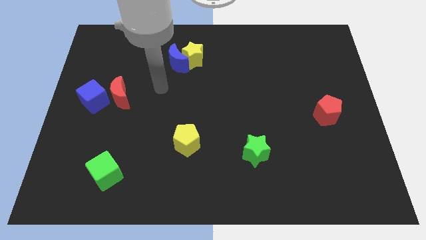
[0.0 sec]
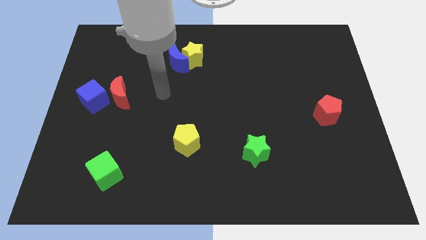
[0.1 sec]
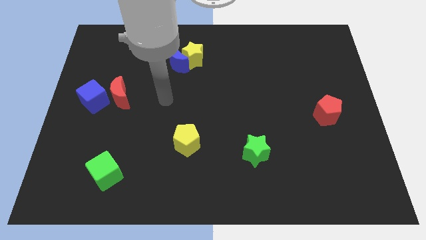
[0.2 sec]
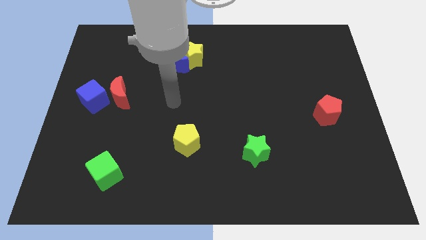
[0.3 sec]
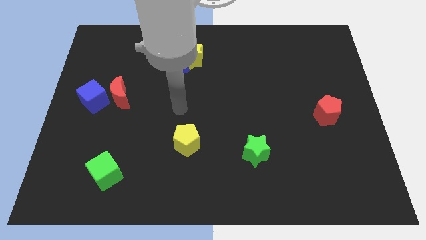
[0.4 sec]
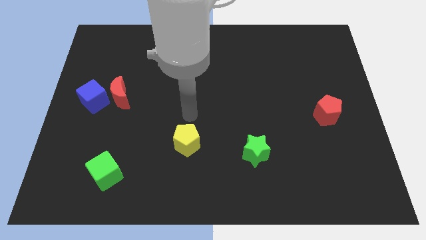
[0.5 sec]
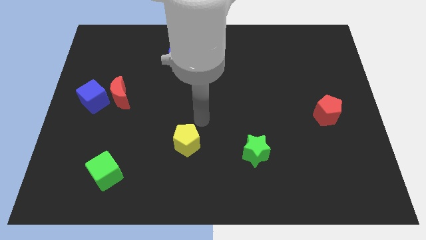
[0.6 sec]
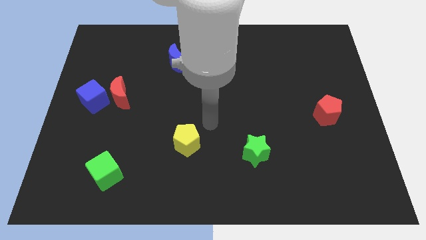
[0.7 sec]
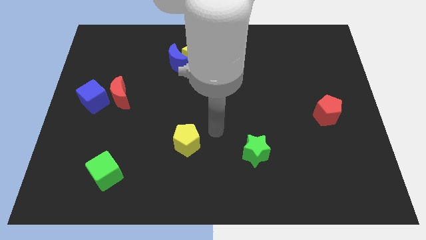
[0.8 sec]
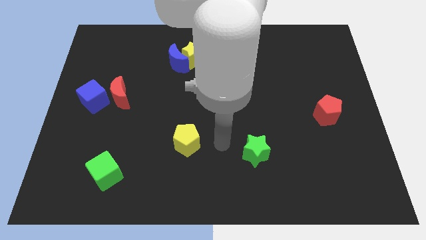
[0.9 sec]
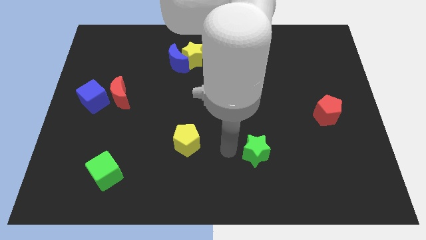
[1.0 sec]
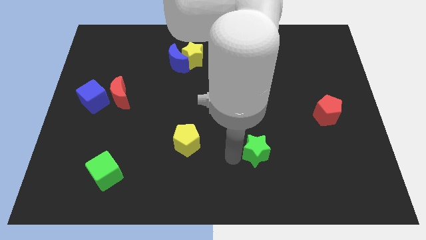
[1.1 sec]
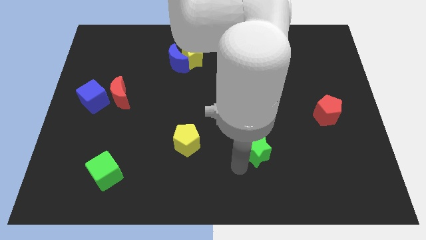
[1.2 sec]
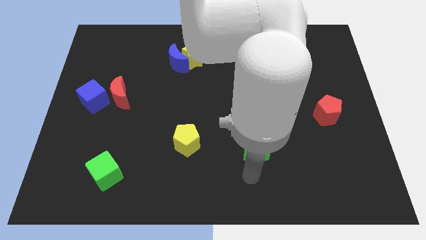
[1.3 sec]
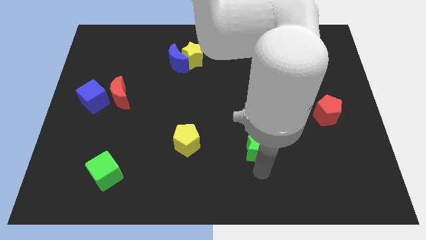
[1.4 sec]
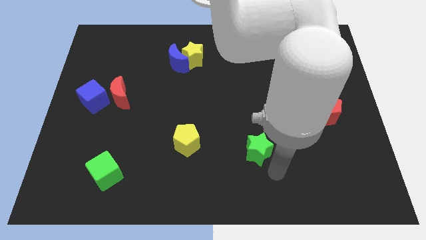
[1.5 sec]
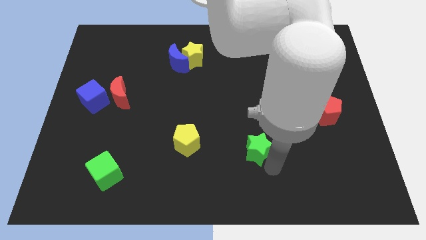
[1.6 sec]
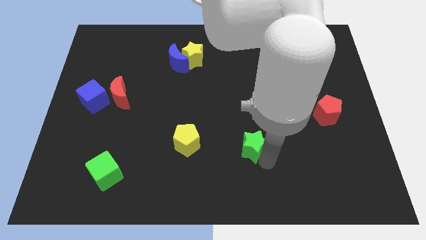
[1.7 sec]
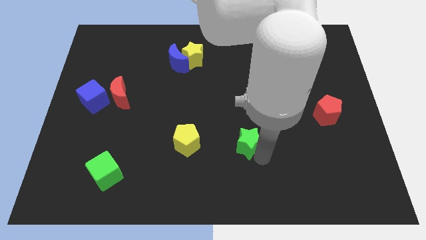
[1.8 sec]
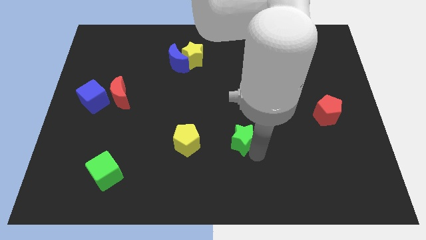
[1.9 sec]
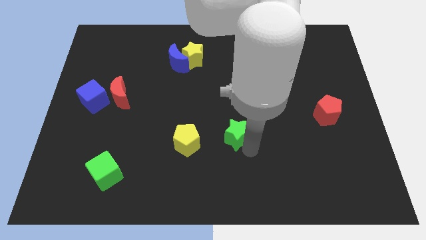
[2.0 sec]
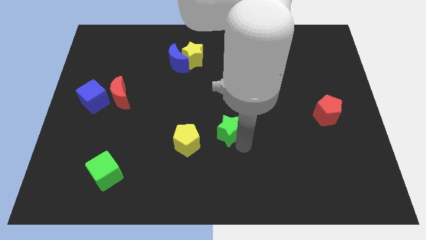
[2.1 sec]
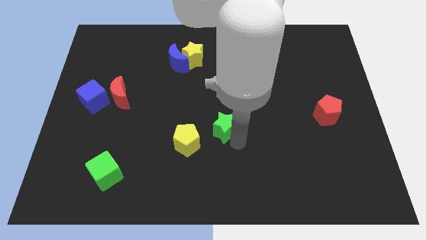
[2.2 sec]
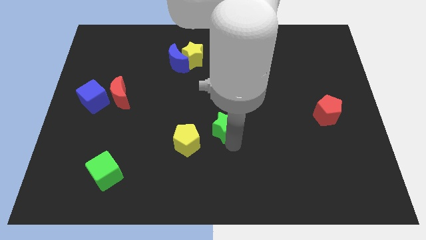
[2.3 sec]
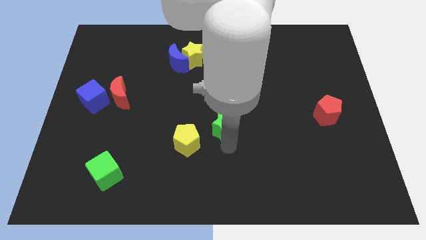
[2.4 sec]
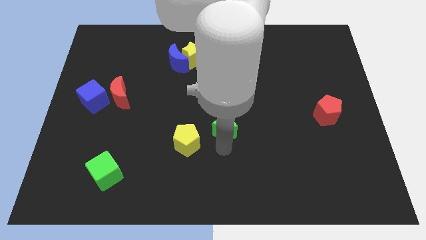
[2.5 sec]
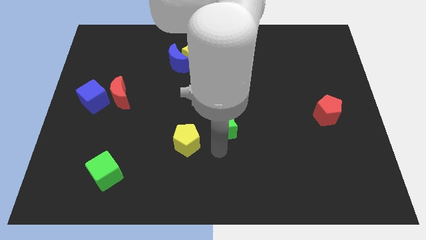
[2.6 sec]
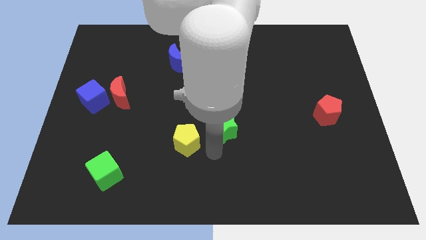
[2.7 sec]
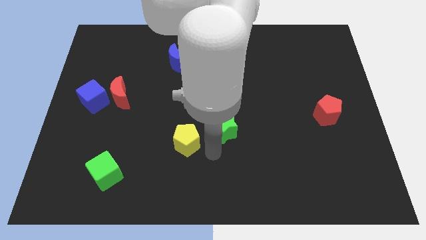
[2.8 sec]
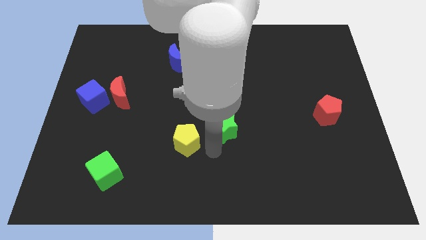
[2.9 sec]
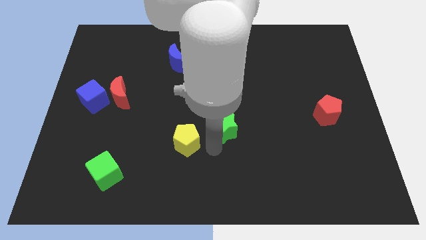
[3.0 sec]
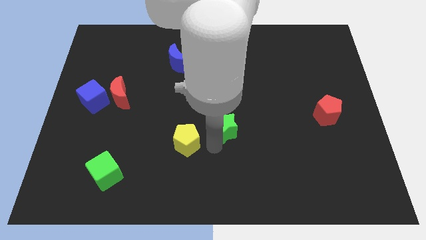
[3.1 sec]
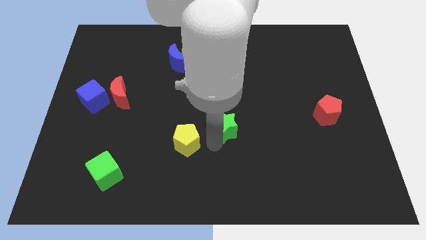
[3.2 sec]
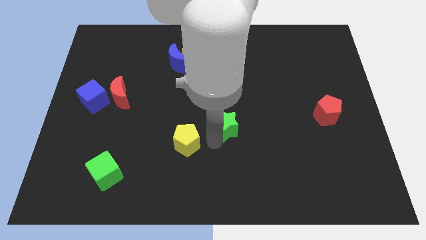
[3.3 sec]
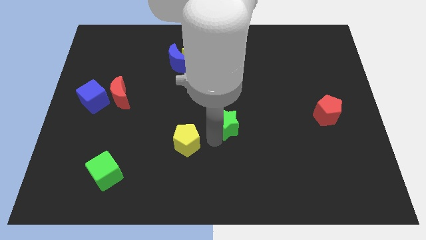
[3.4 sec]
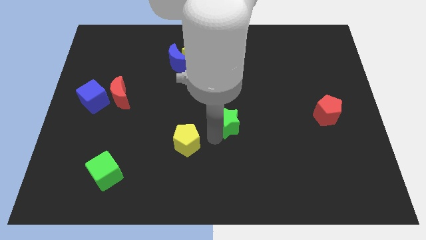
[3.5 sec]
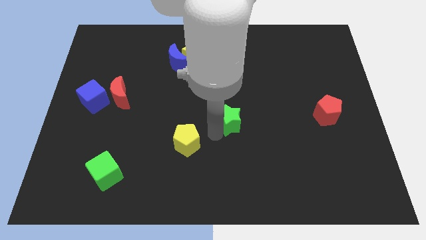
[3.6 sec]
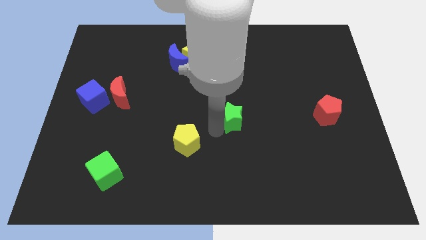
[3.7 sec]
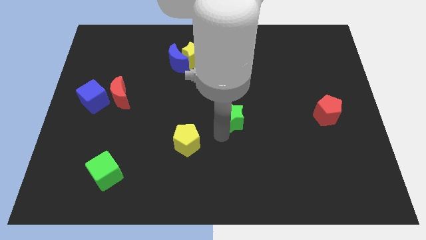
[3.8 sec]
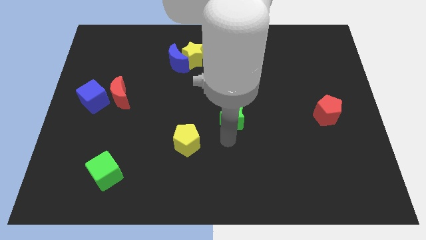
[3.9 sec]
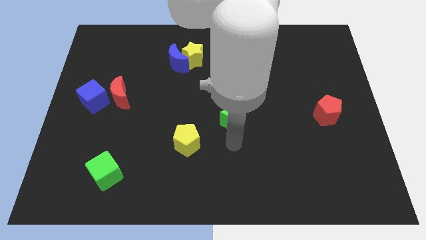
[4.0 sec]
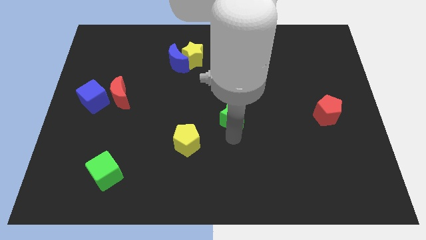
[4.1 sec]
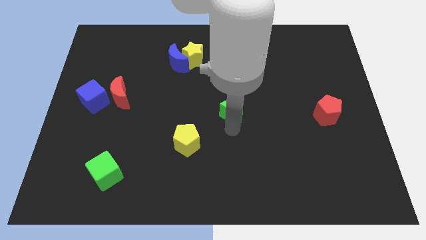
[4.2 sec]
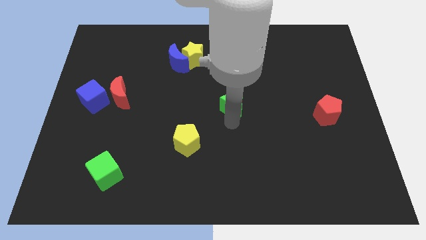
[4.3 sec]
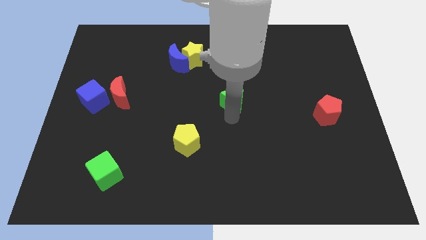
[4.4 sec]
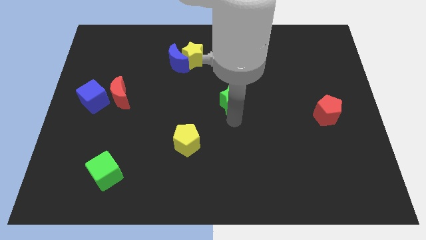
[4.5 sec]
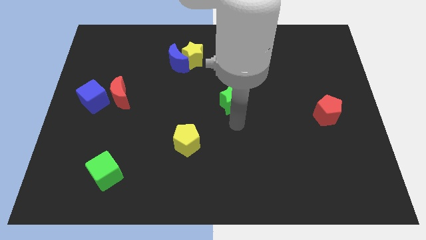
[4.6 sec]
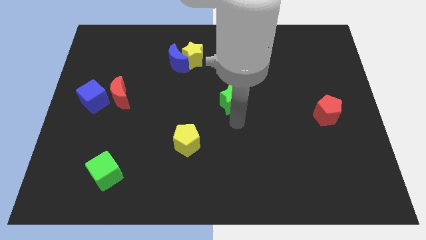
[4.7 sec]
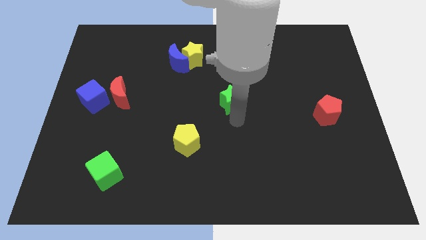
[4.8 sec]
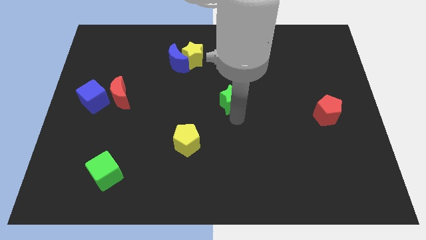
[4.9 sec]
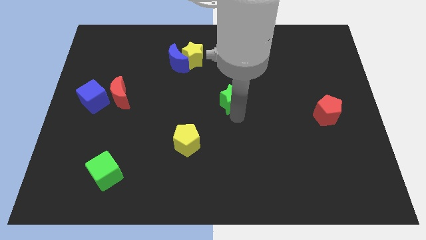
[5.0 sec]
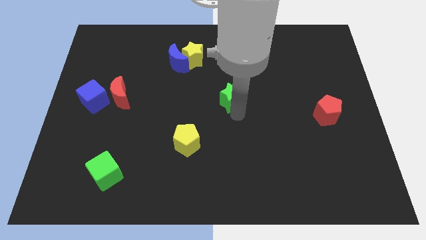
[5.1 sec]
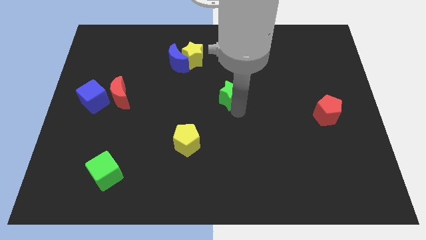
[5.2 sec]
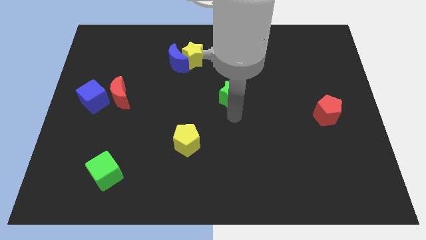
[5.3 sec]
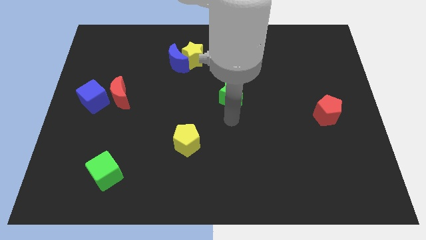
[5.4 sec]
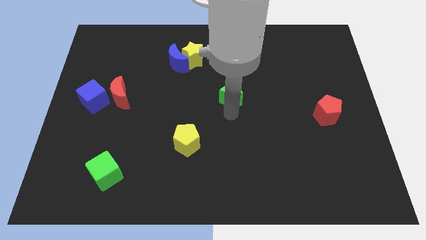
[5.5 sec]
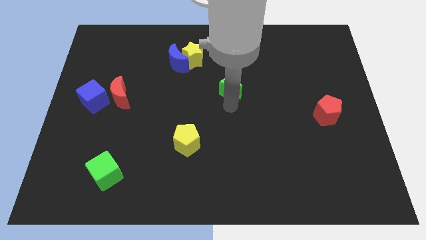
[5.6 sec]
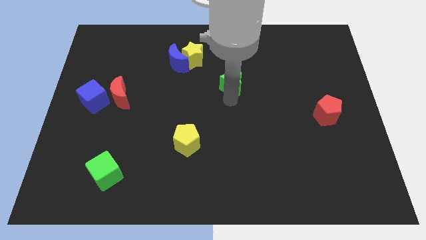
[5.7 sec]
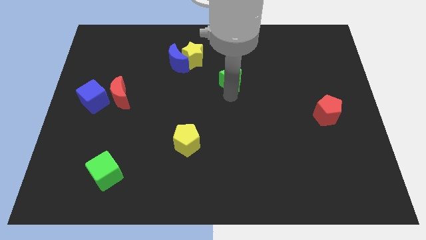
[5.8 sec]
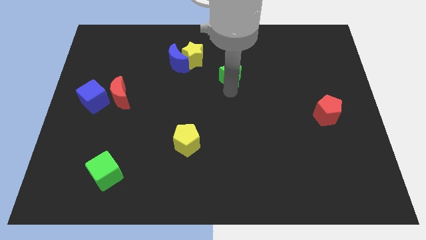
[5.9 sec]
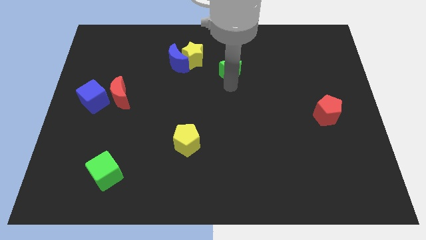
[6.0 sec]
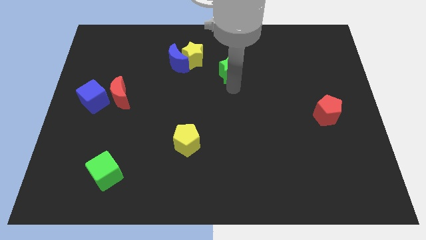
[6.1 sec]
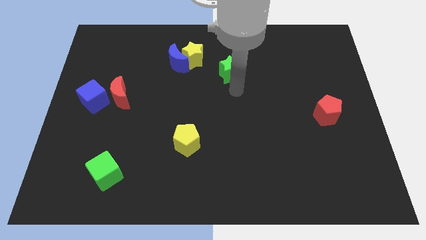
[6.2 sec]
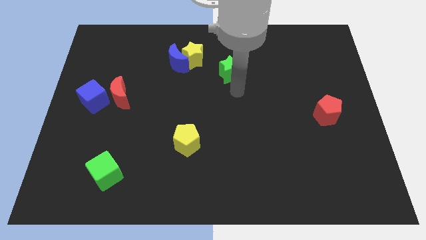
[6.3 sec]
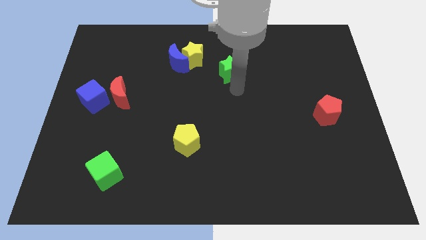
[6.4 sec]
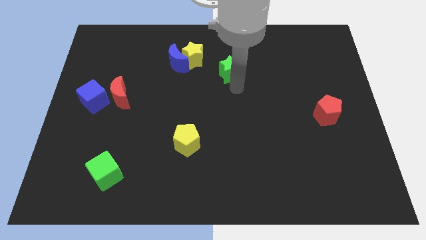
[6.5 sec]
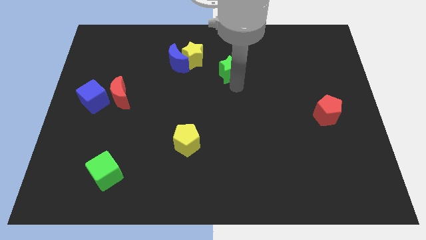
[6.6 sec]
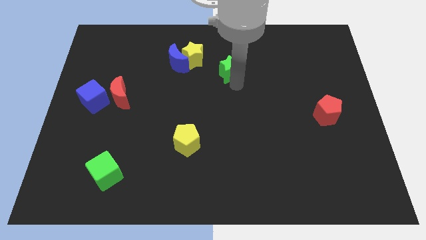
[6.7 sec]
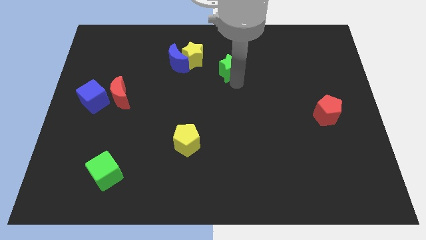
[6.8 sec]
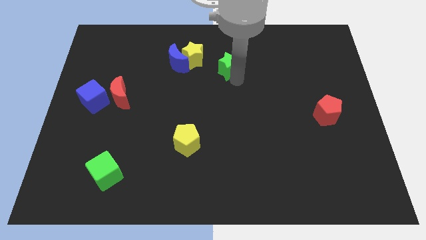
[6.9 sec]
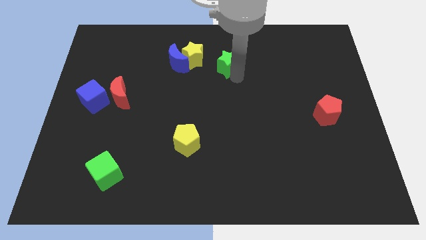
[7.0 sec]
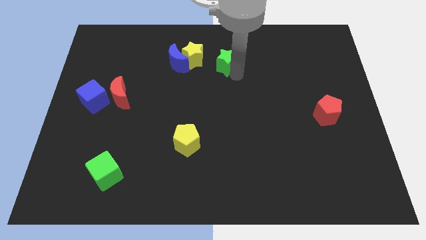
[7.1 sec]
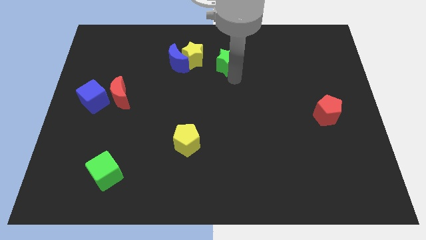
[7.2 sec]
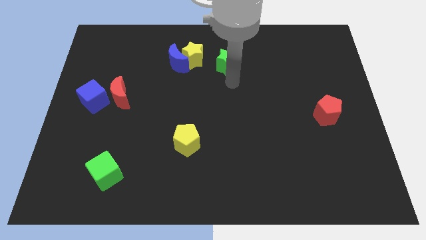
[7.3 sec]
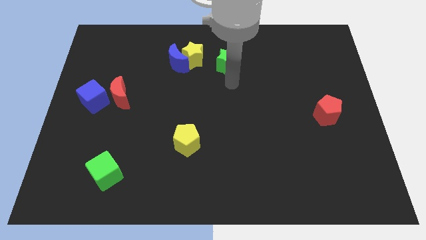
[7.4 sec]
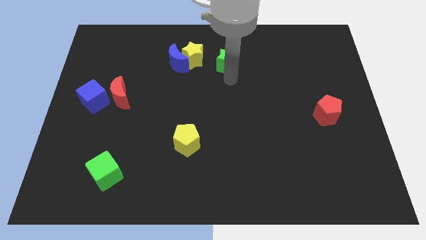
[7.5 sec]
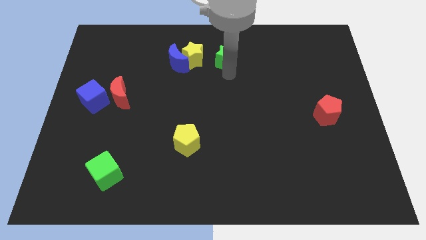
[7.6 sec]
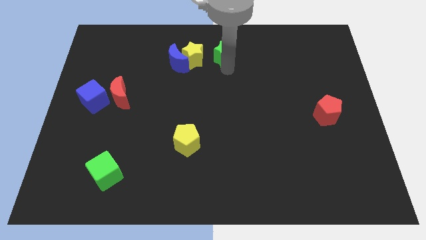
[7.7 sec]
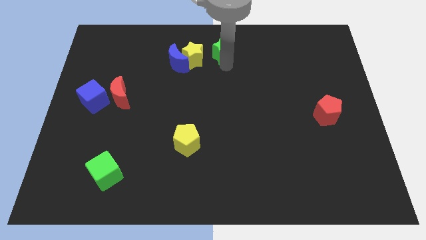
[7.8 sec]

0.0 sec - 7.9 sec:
slide the green star to the top

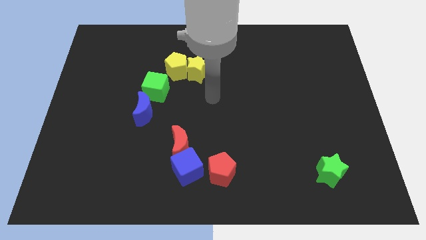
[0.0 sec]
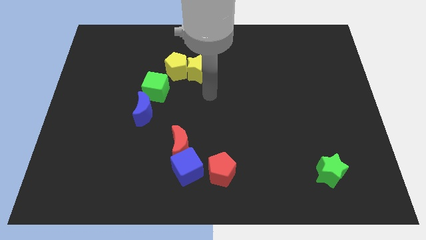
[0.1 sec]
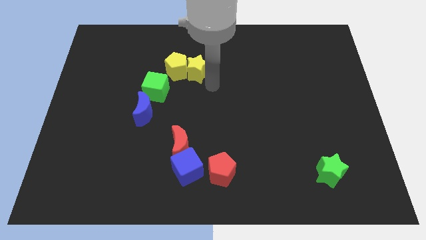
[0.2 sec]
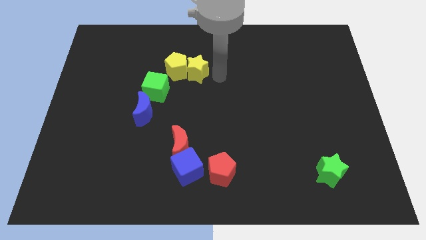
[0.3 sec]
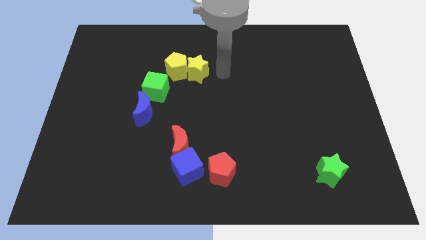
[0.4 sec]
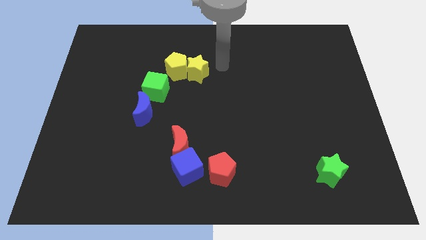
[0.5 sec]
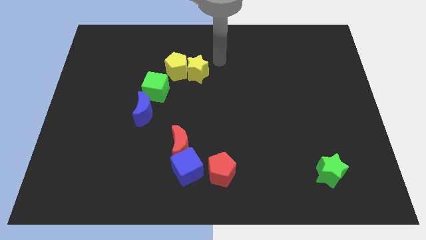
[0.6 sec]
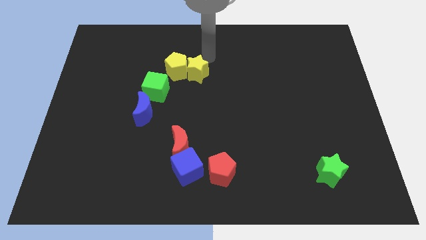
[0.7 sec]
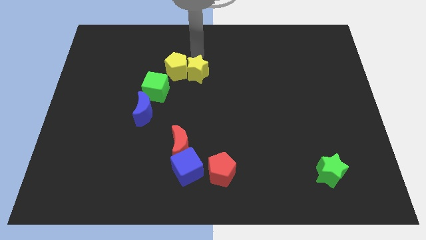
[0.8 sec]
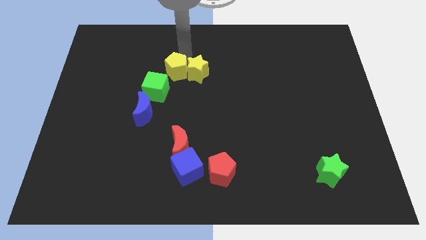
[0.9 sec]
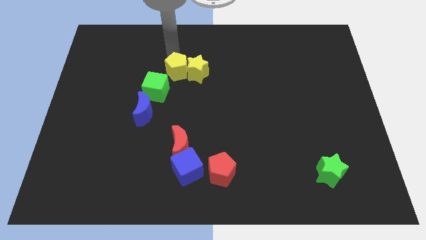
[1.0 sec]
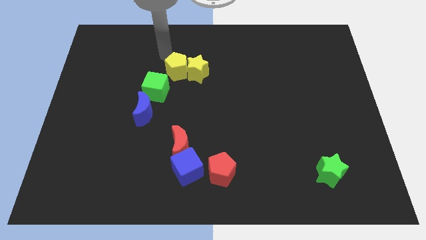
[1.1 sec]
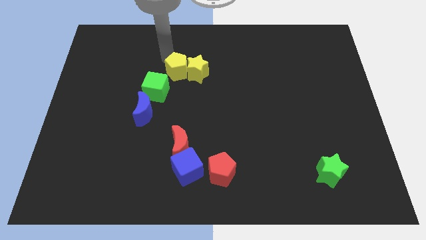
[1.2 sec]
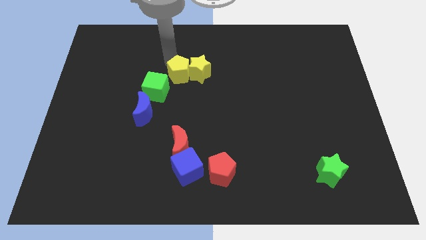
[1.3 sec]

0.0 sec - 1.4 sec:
move the yellow pentagon to the center of the board
